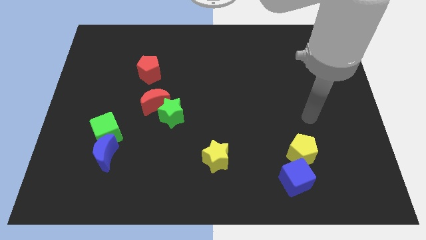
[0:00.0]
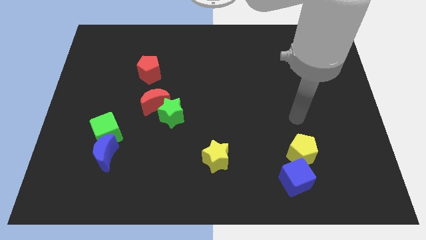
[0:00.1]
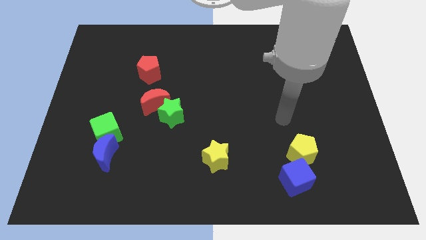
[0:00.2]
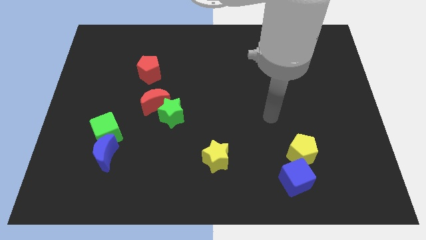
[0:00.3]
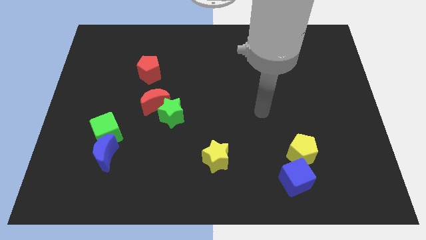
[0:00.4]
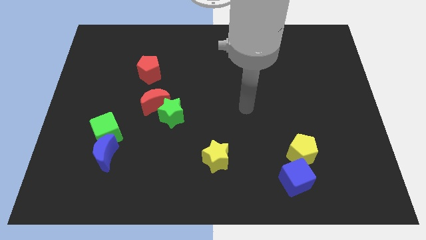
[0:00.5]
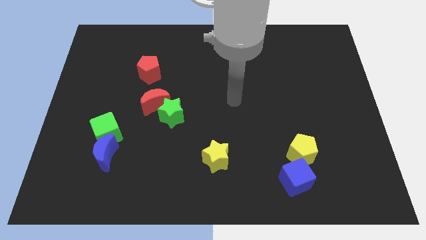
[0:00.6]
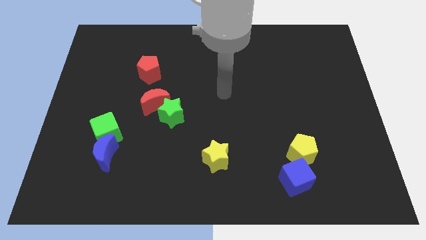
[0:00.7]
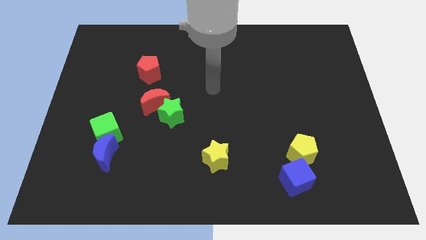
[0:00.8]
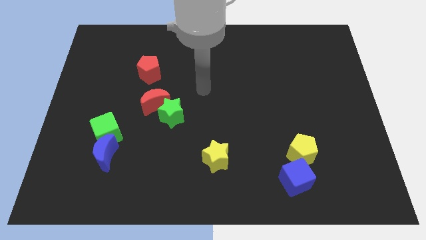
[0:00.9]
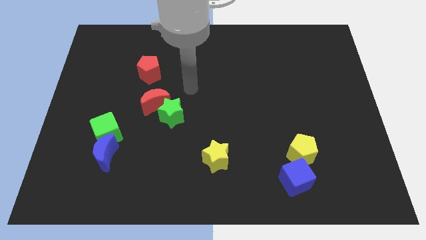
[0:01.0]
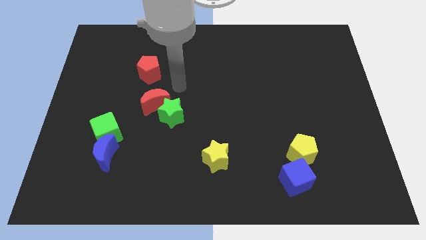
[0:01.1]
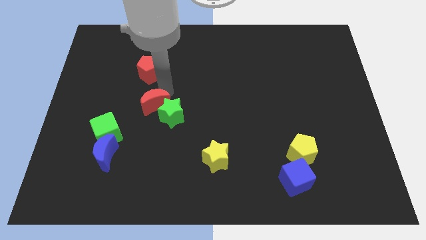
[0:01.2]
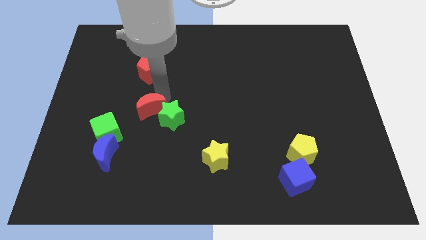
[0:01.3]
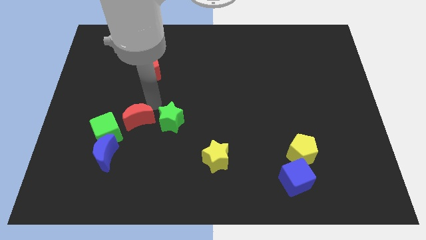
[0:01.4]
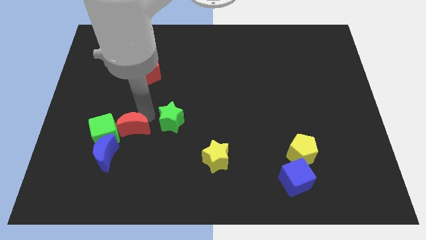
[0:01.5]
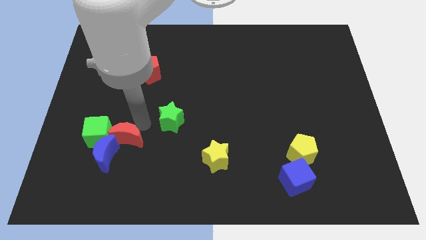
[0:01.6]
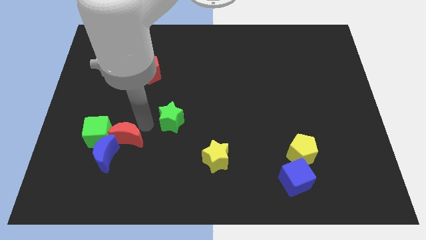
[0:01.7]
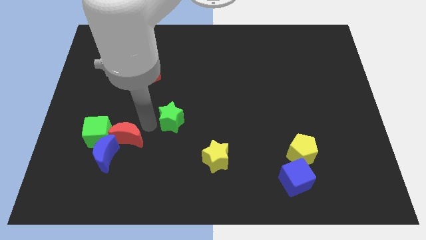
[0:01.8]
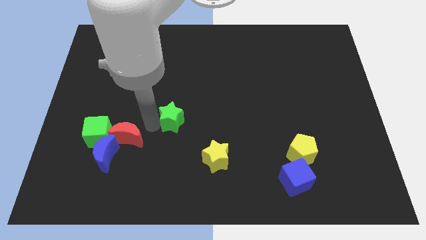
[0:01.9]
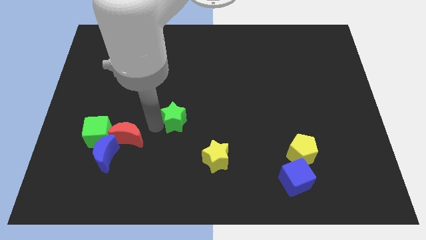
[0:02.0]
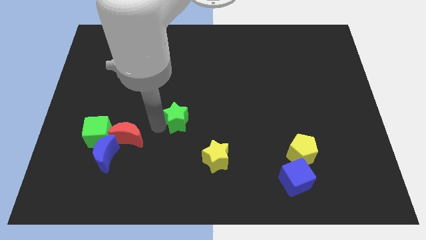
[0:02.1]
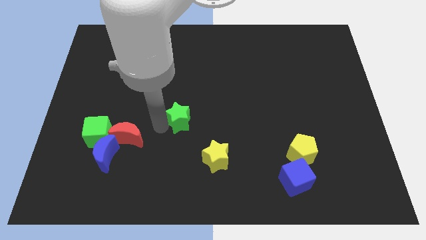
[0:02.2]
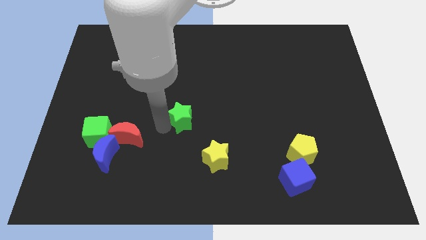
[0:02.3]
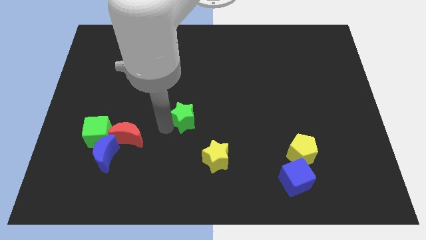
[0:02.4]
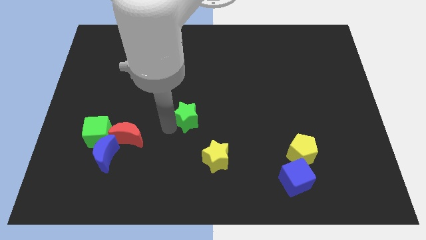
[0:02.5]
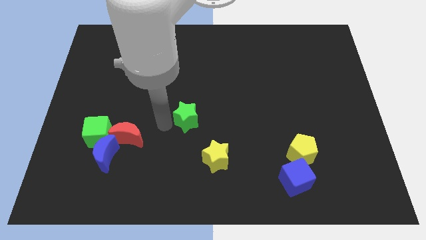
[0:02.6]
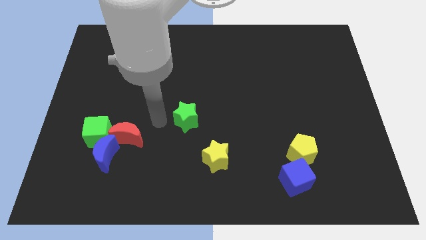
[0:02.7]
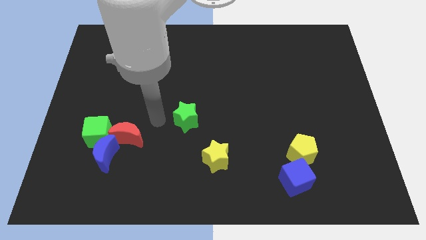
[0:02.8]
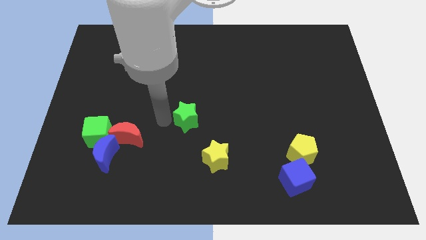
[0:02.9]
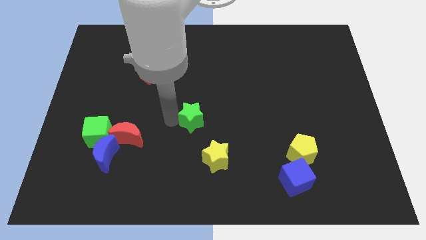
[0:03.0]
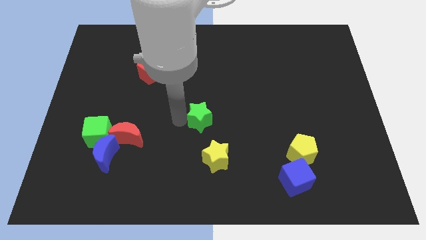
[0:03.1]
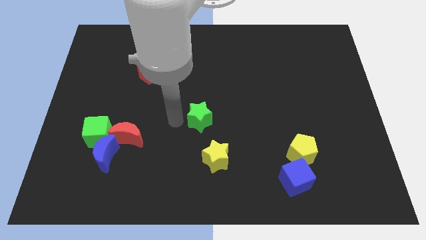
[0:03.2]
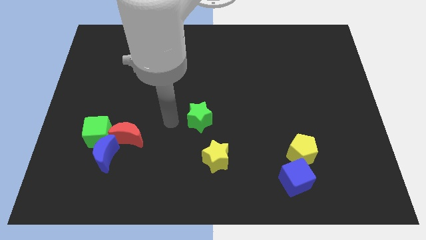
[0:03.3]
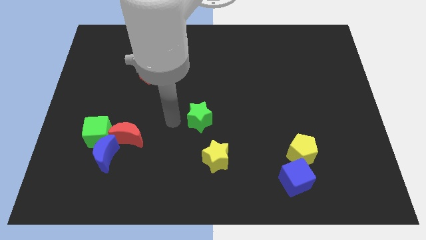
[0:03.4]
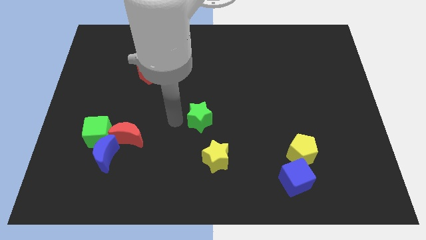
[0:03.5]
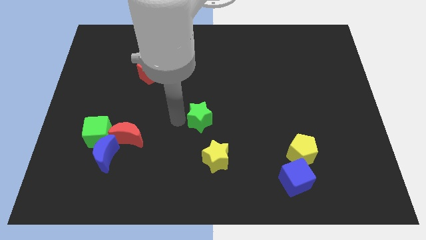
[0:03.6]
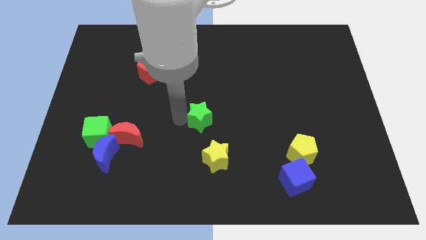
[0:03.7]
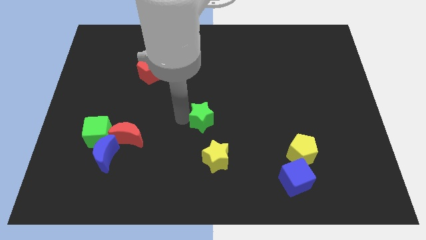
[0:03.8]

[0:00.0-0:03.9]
slightly move the green star right

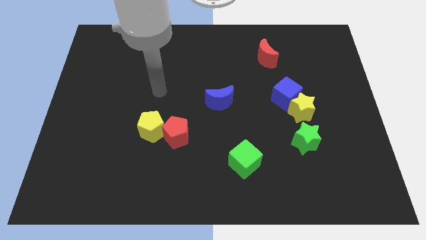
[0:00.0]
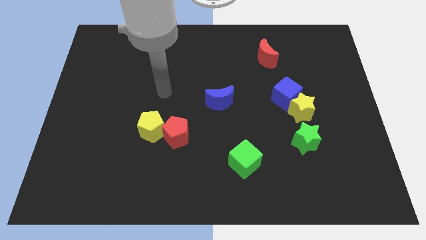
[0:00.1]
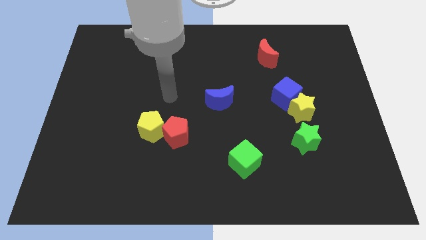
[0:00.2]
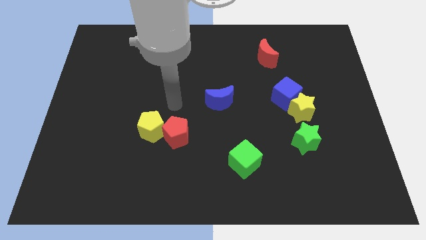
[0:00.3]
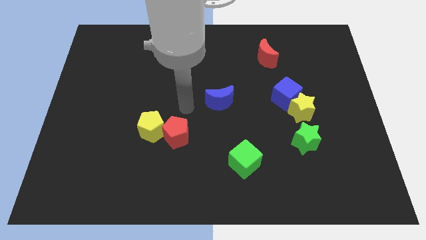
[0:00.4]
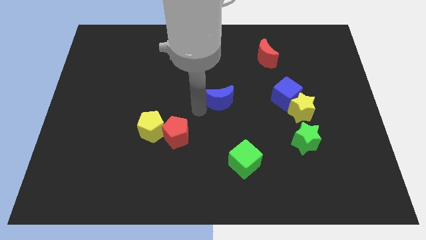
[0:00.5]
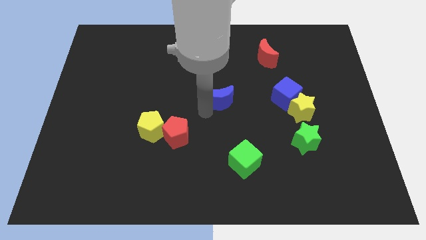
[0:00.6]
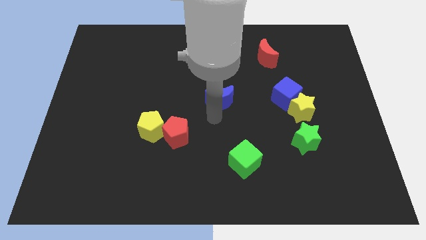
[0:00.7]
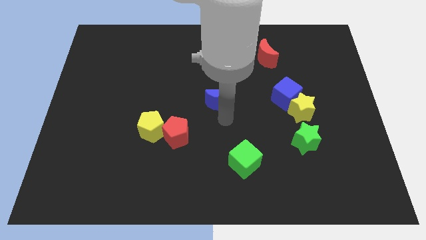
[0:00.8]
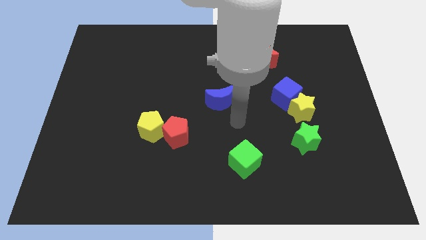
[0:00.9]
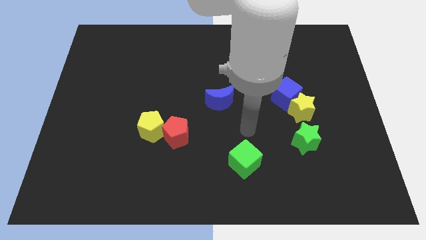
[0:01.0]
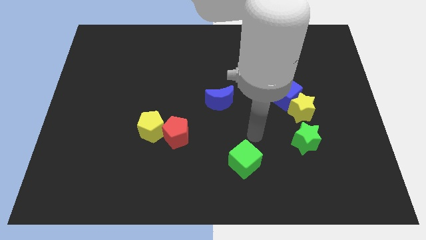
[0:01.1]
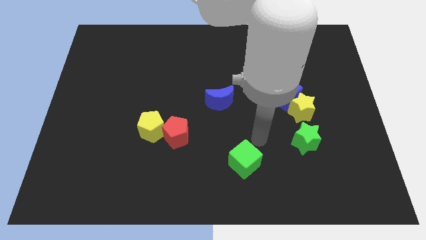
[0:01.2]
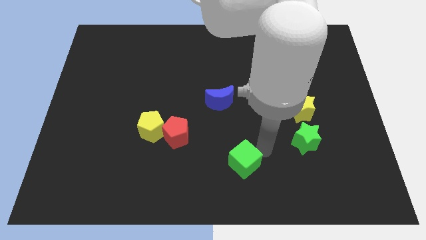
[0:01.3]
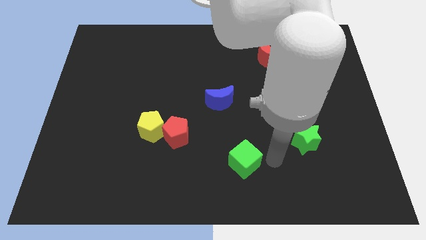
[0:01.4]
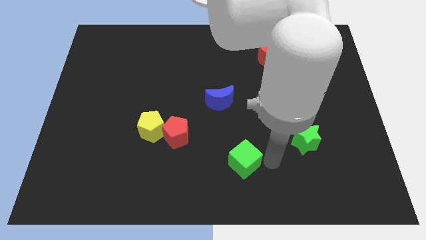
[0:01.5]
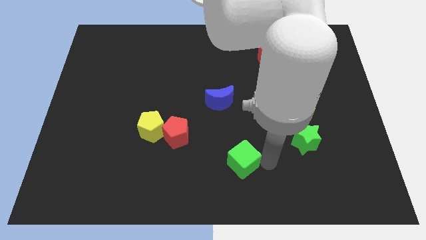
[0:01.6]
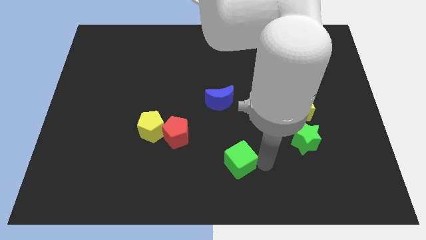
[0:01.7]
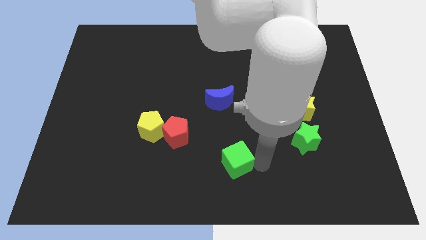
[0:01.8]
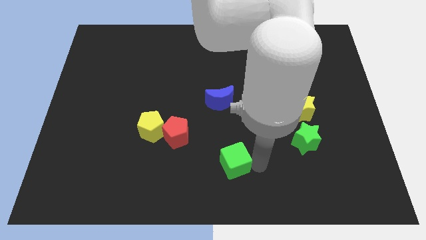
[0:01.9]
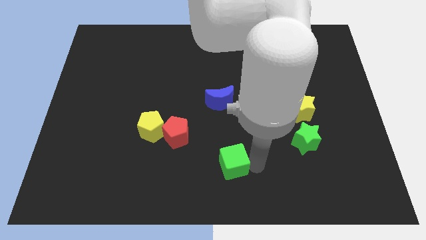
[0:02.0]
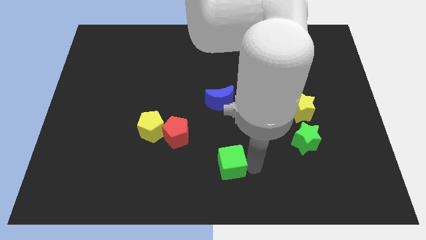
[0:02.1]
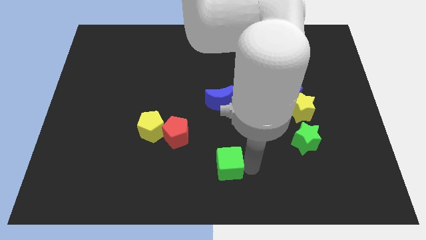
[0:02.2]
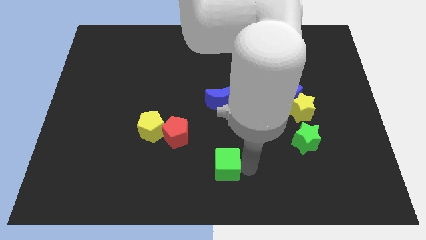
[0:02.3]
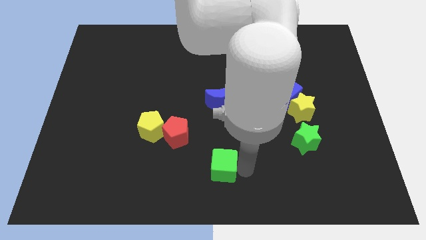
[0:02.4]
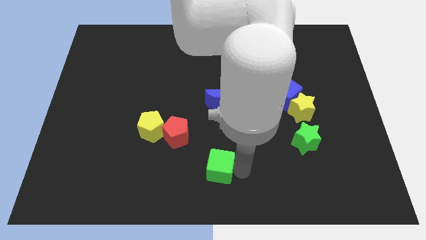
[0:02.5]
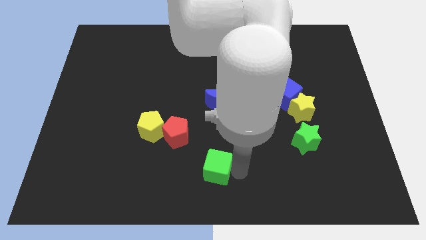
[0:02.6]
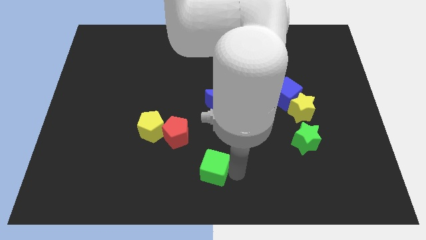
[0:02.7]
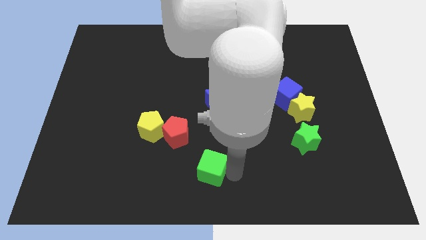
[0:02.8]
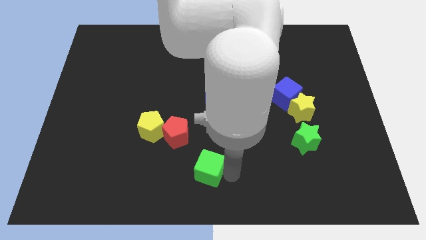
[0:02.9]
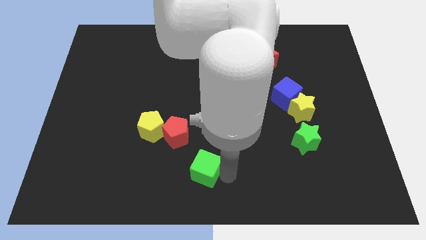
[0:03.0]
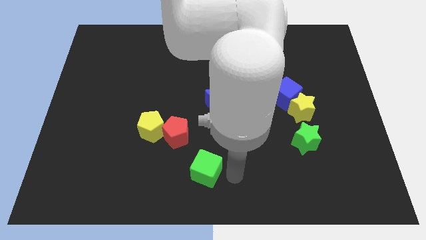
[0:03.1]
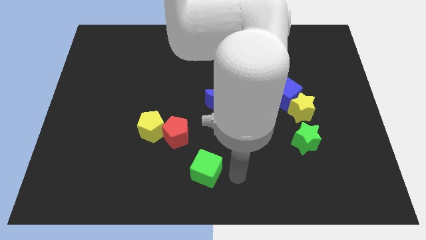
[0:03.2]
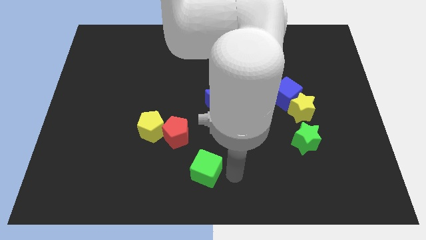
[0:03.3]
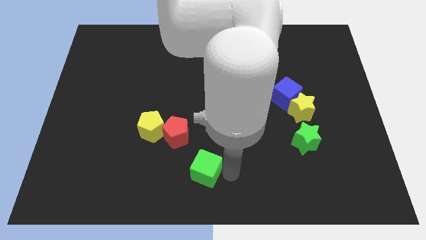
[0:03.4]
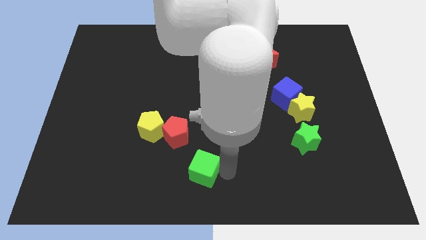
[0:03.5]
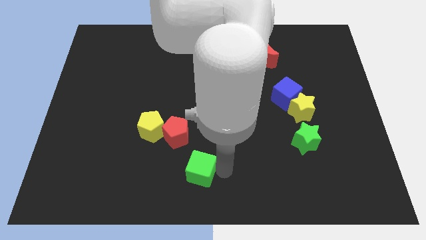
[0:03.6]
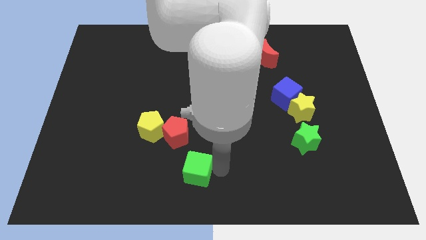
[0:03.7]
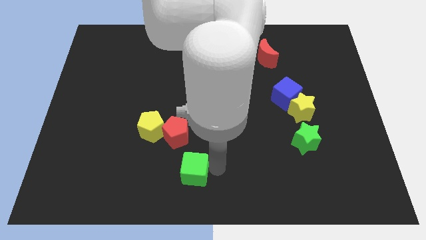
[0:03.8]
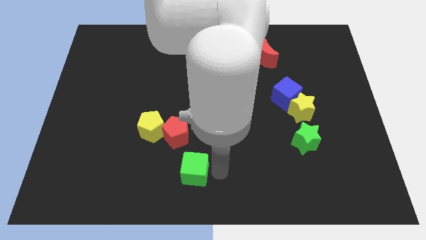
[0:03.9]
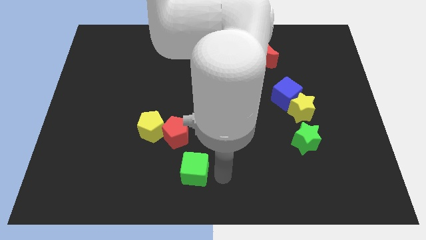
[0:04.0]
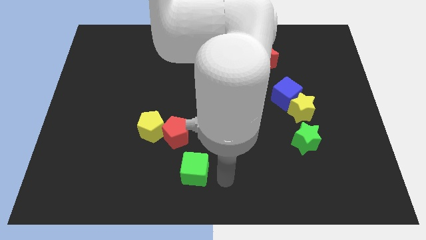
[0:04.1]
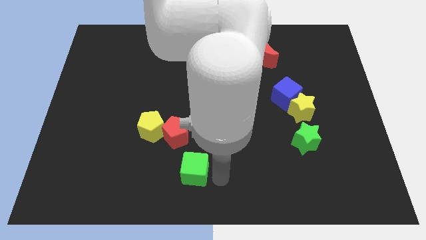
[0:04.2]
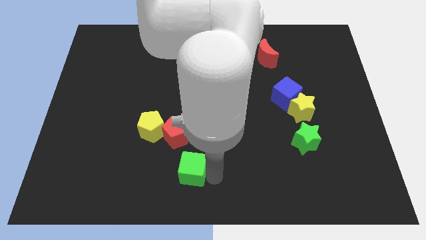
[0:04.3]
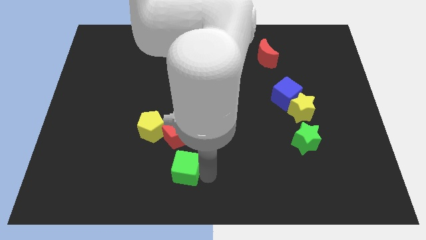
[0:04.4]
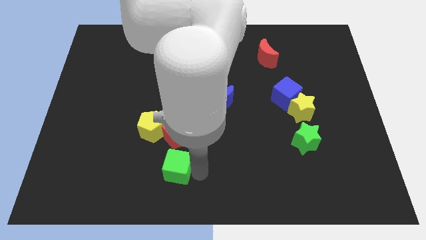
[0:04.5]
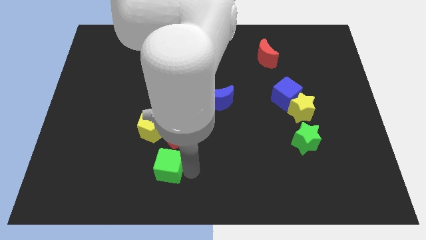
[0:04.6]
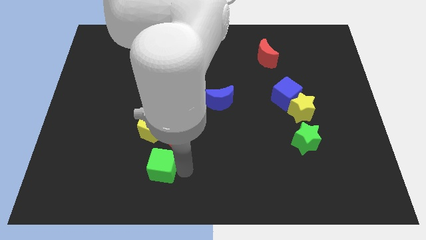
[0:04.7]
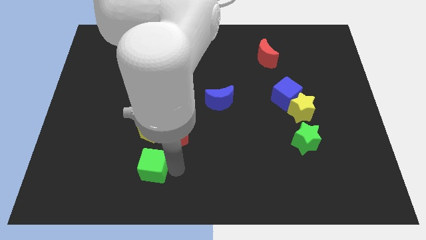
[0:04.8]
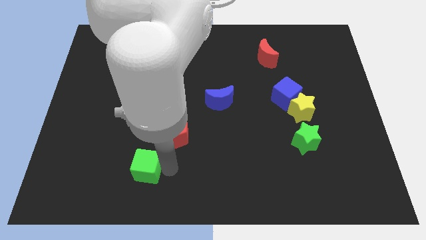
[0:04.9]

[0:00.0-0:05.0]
move the green cube to the left
